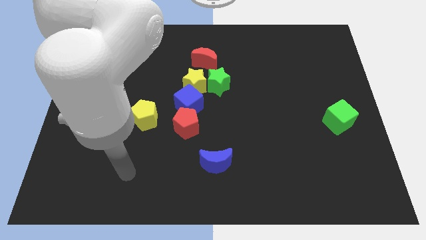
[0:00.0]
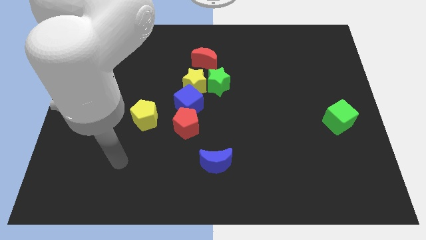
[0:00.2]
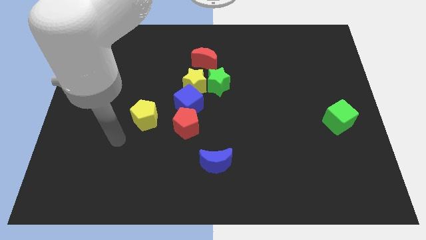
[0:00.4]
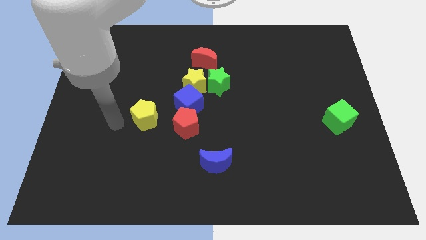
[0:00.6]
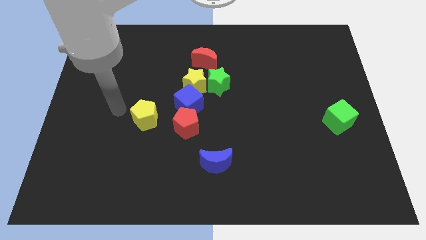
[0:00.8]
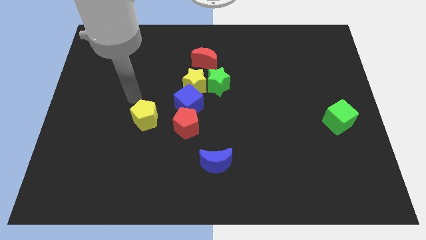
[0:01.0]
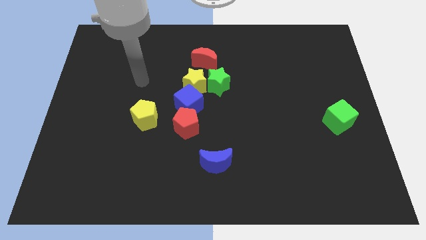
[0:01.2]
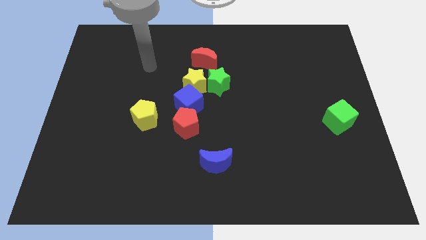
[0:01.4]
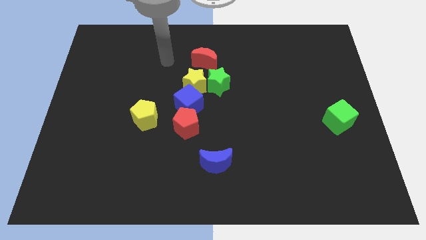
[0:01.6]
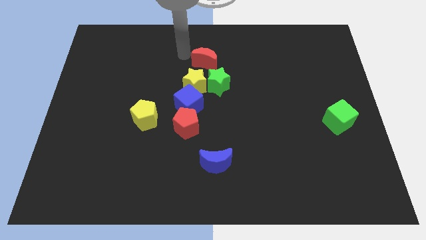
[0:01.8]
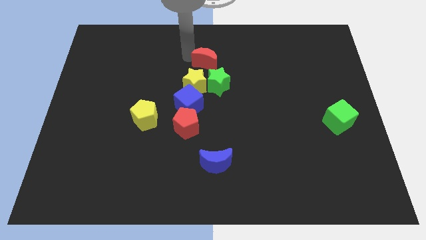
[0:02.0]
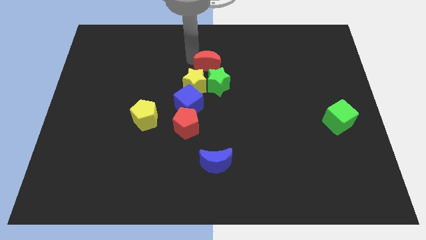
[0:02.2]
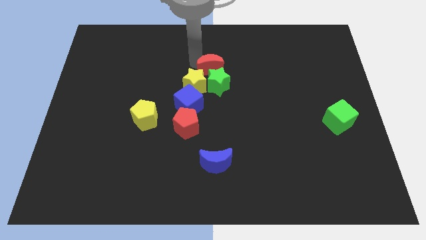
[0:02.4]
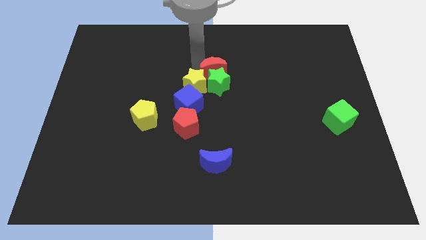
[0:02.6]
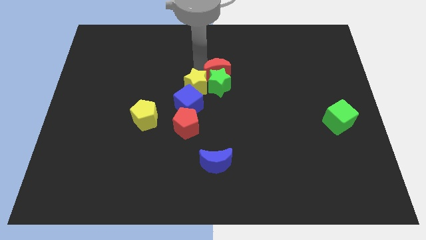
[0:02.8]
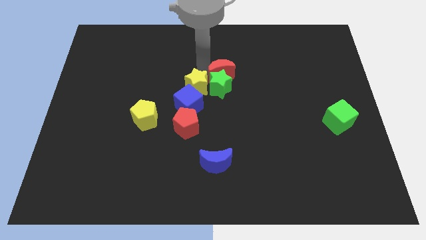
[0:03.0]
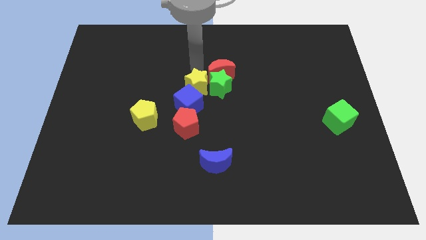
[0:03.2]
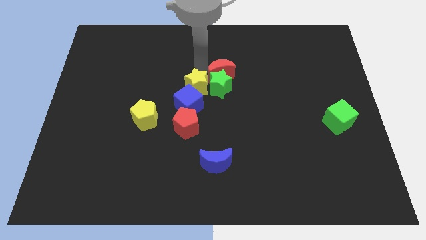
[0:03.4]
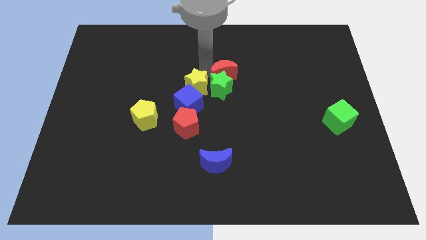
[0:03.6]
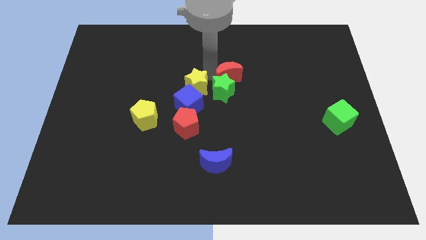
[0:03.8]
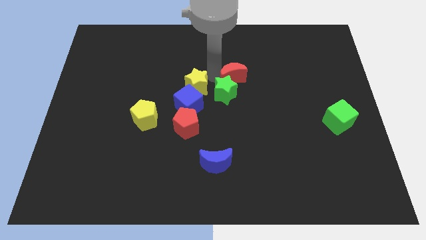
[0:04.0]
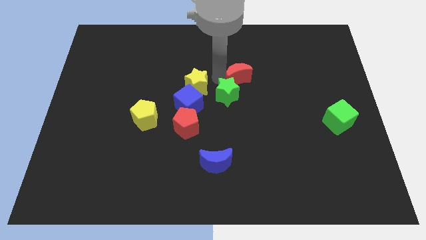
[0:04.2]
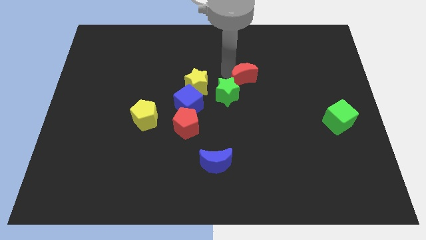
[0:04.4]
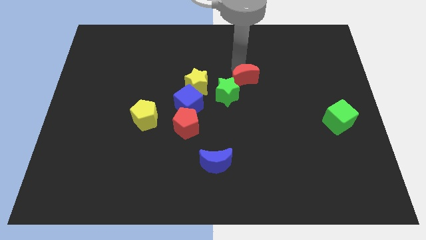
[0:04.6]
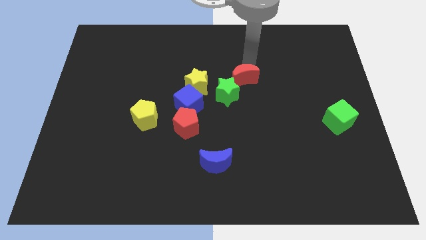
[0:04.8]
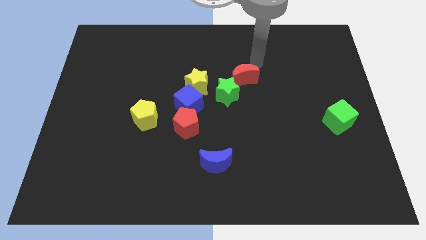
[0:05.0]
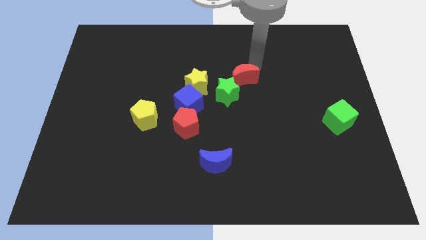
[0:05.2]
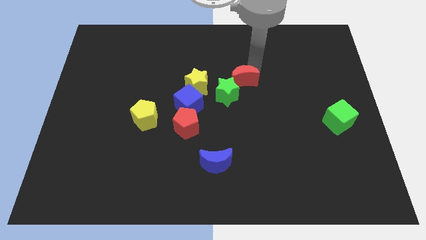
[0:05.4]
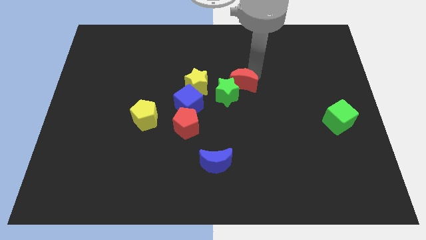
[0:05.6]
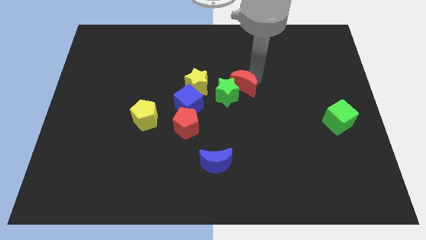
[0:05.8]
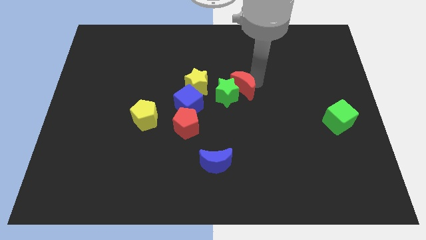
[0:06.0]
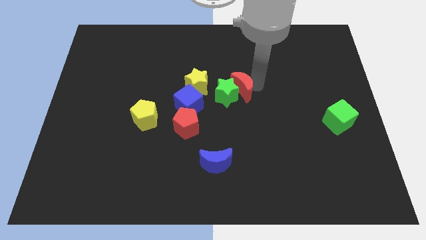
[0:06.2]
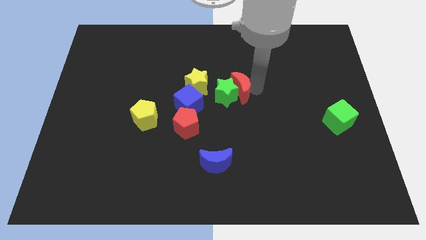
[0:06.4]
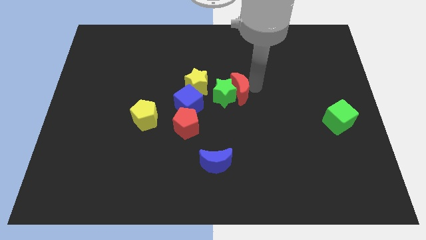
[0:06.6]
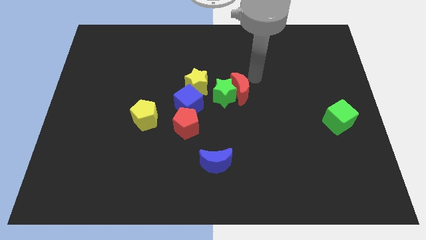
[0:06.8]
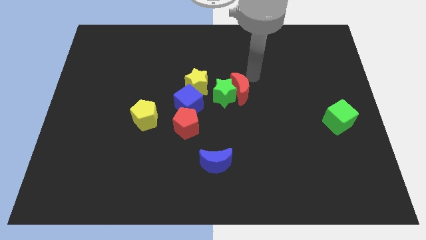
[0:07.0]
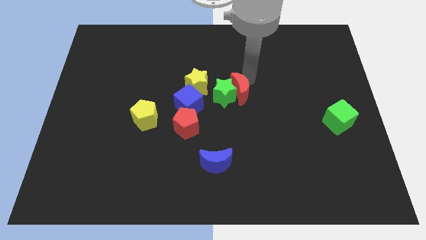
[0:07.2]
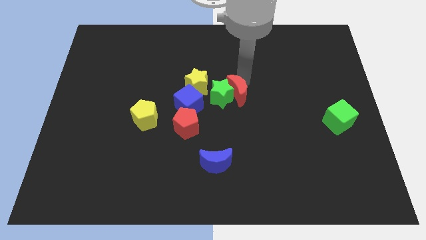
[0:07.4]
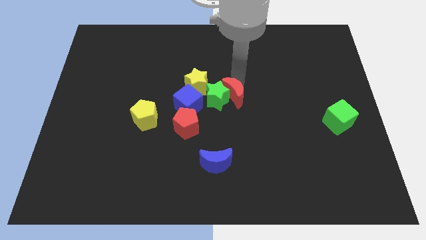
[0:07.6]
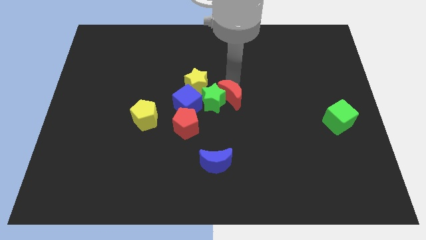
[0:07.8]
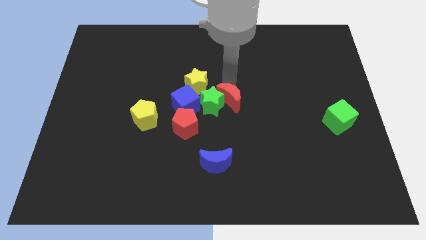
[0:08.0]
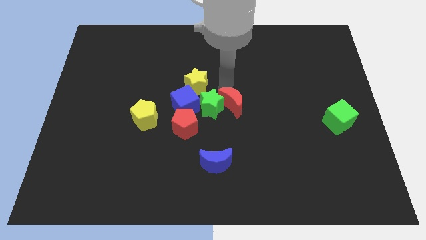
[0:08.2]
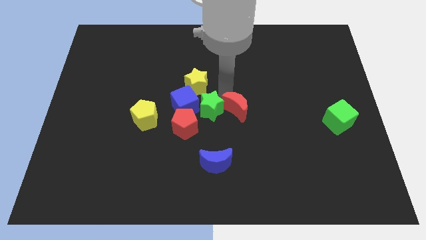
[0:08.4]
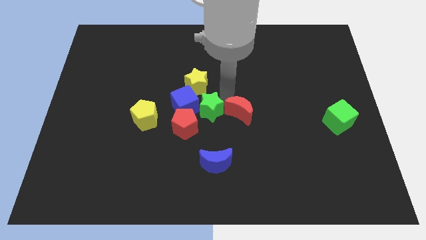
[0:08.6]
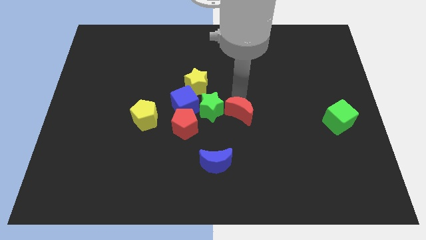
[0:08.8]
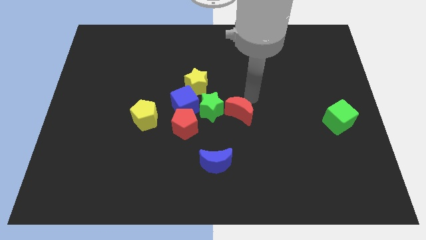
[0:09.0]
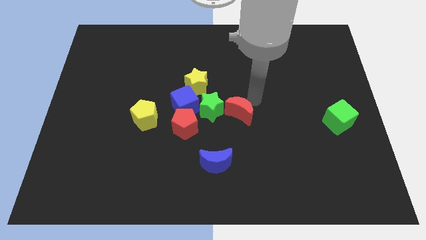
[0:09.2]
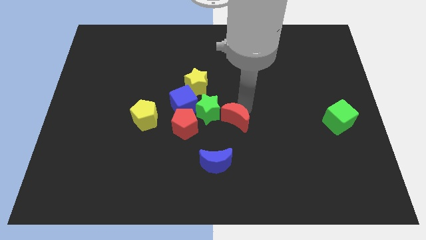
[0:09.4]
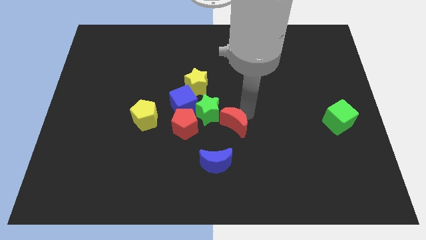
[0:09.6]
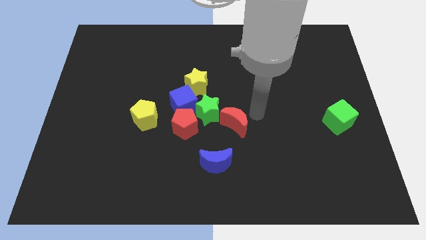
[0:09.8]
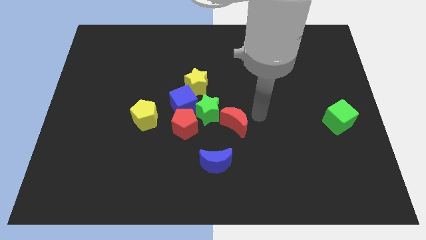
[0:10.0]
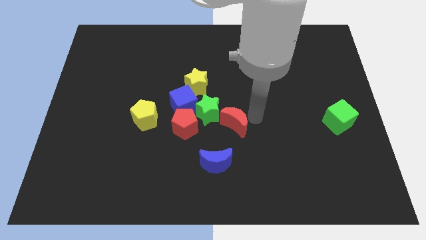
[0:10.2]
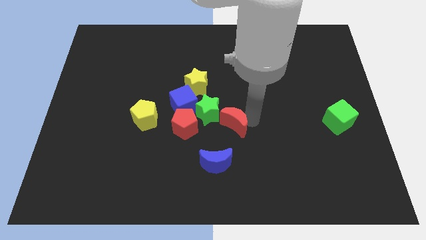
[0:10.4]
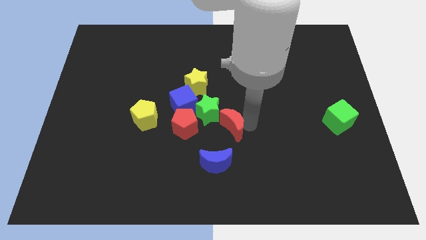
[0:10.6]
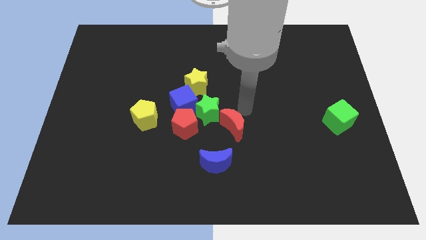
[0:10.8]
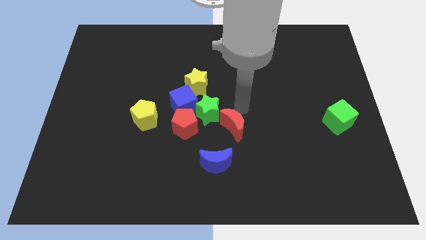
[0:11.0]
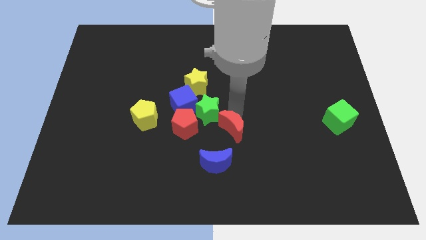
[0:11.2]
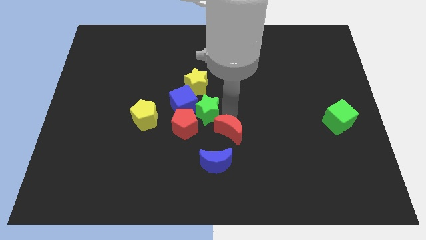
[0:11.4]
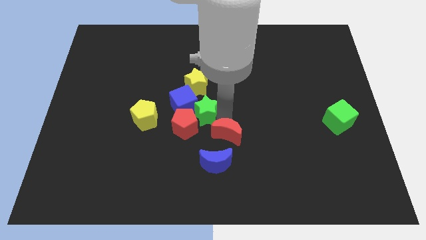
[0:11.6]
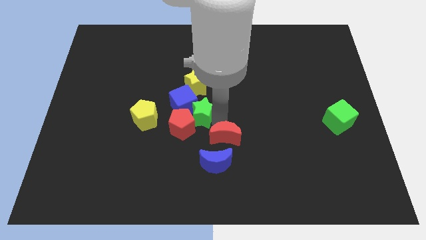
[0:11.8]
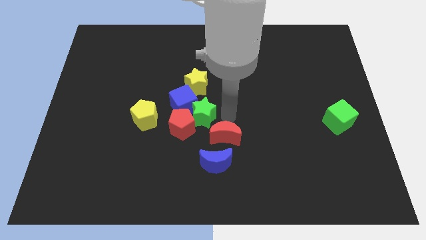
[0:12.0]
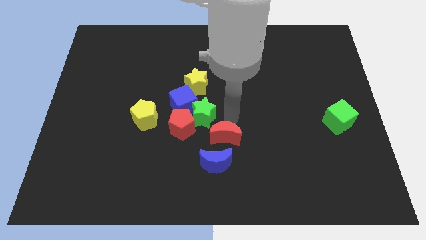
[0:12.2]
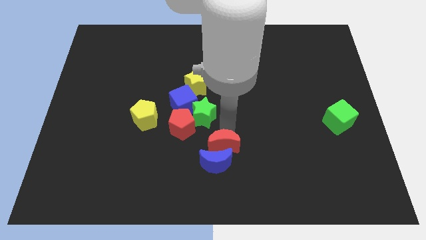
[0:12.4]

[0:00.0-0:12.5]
move the red moon to the blue moon

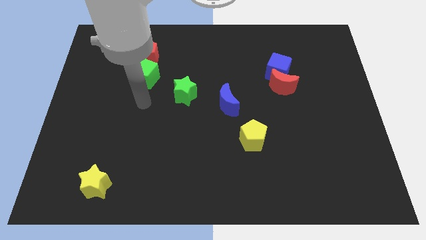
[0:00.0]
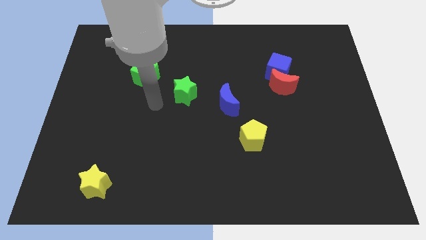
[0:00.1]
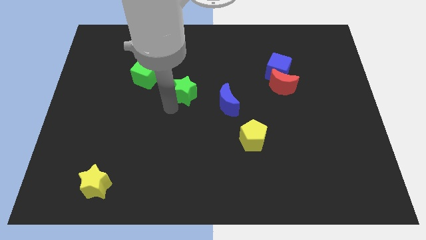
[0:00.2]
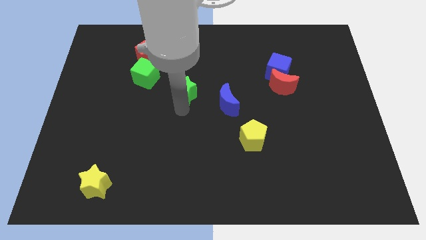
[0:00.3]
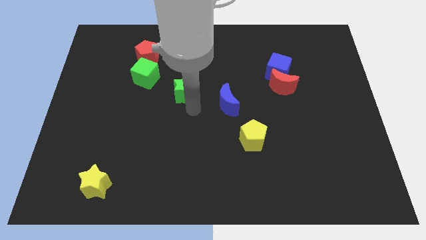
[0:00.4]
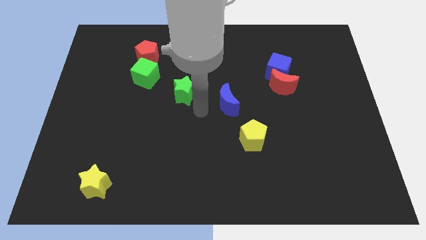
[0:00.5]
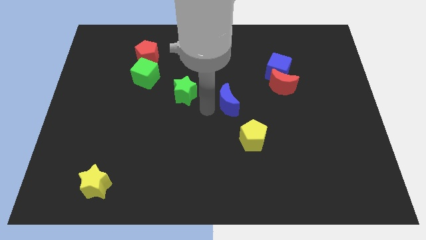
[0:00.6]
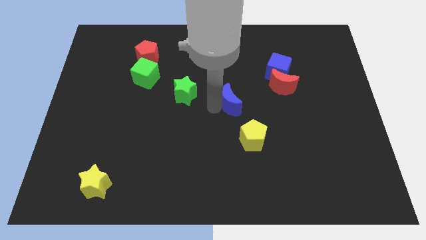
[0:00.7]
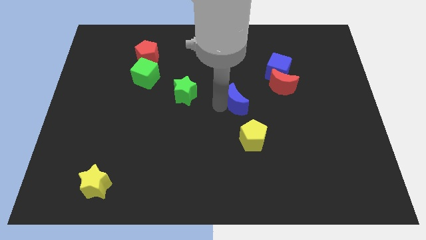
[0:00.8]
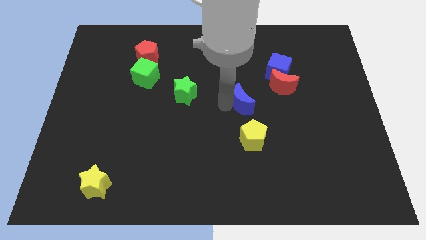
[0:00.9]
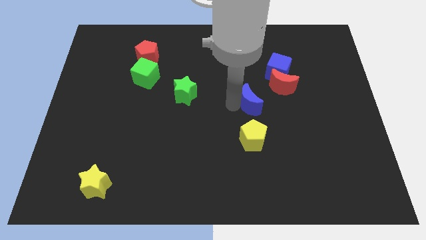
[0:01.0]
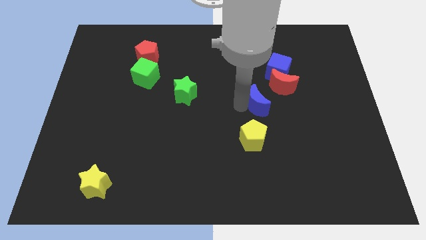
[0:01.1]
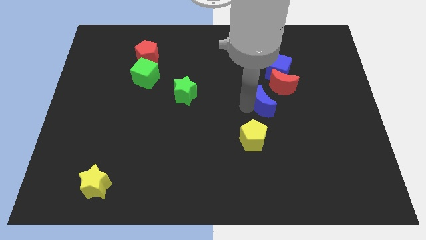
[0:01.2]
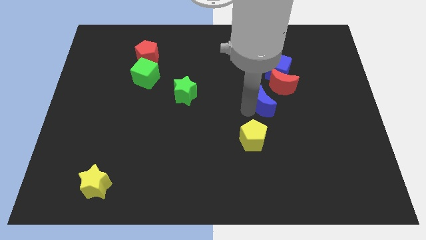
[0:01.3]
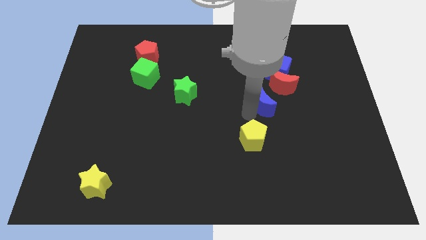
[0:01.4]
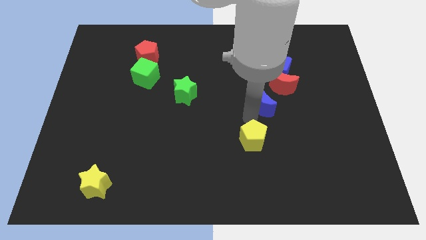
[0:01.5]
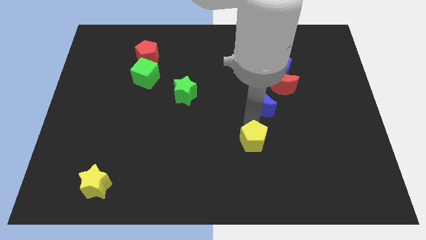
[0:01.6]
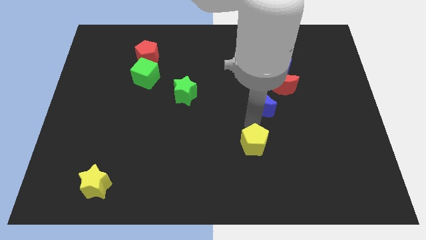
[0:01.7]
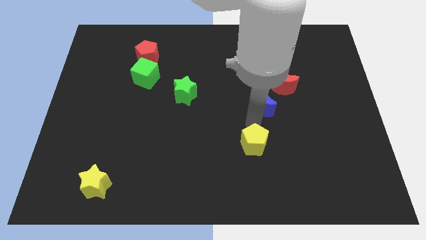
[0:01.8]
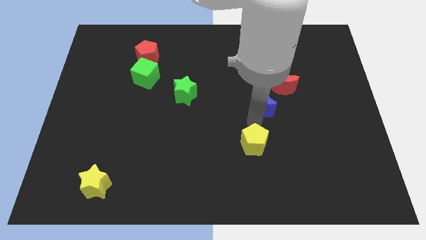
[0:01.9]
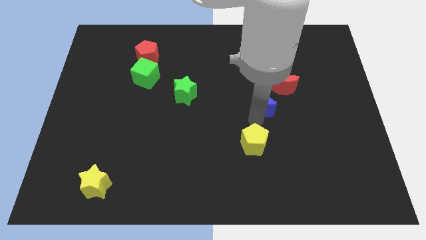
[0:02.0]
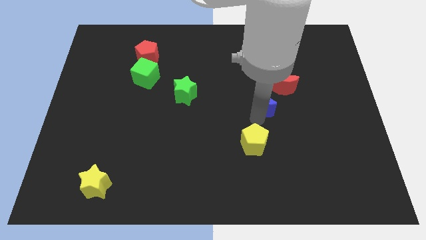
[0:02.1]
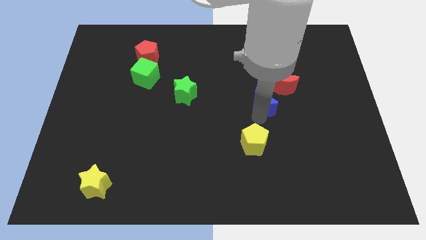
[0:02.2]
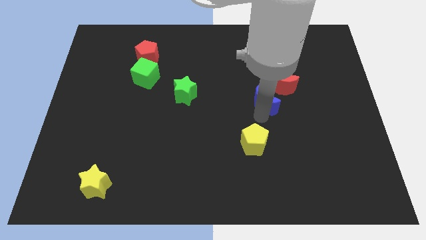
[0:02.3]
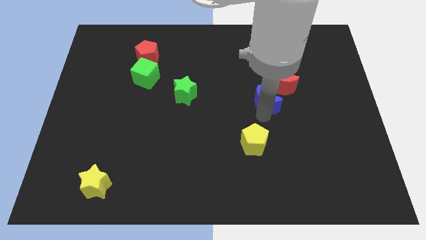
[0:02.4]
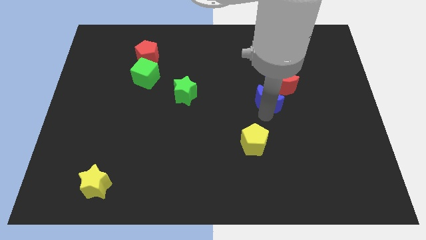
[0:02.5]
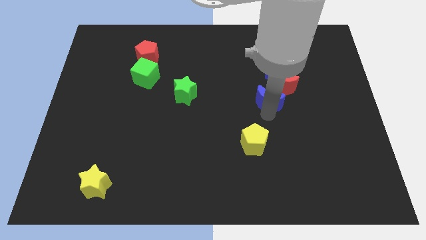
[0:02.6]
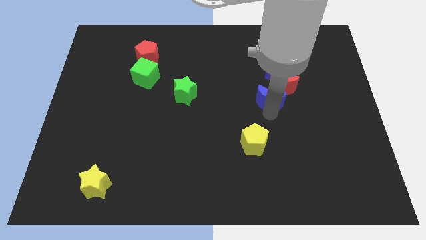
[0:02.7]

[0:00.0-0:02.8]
slide the blue moon next to the red moon
